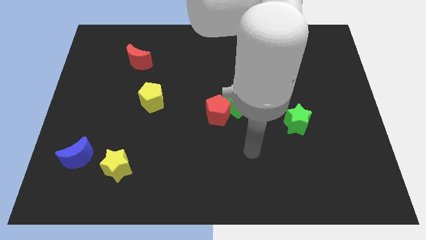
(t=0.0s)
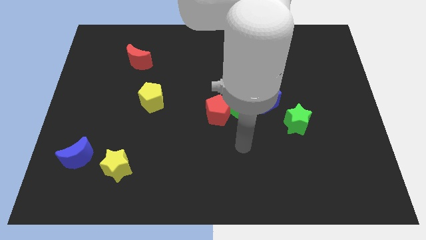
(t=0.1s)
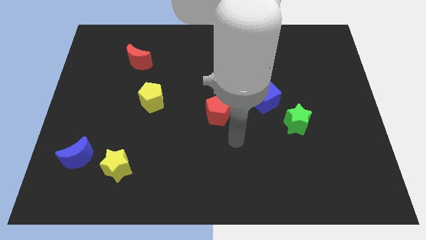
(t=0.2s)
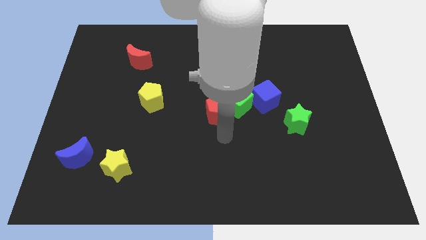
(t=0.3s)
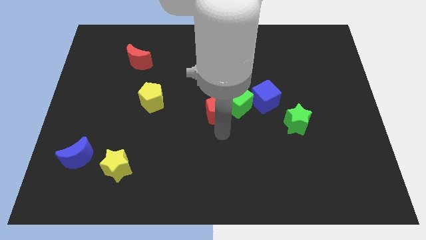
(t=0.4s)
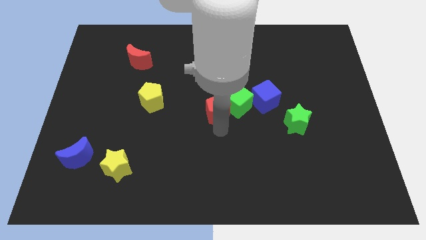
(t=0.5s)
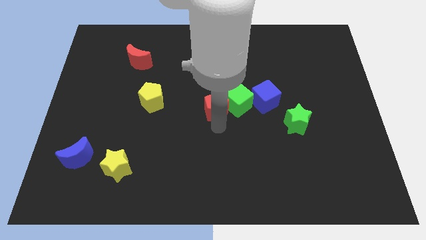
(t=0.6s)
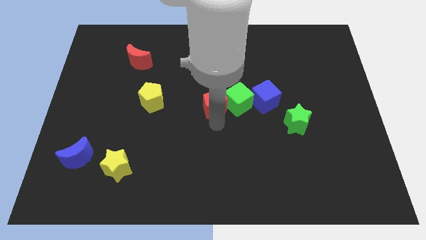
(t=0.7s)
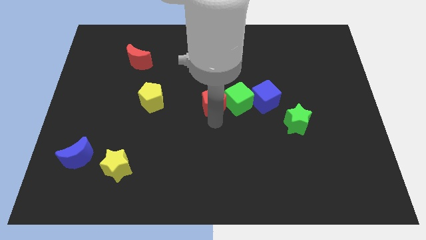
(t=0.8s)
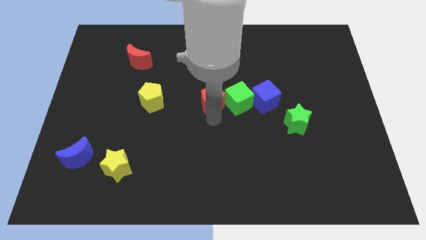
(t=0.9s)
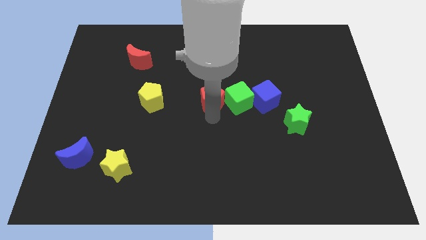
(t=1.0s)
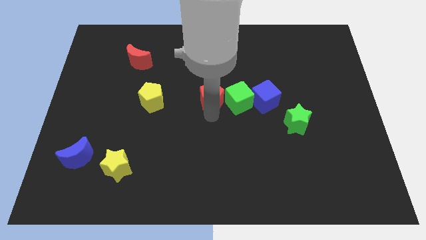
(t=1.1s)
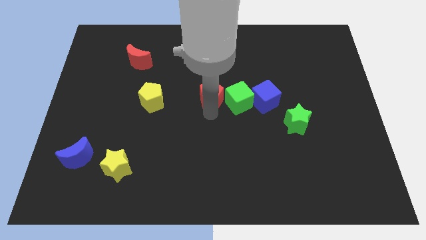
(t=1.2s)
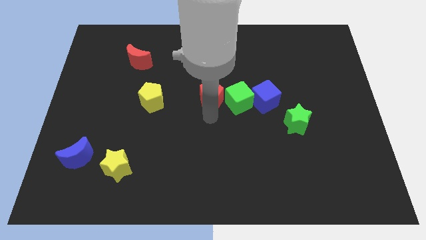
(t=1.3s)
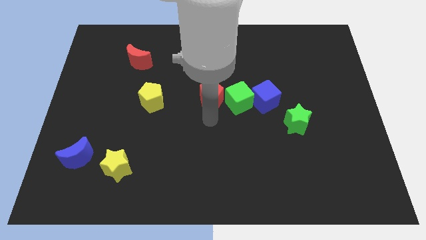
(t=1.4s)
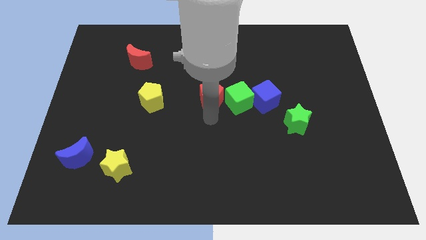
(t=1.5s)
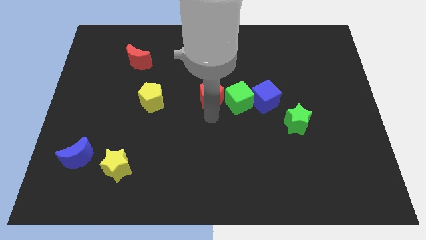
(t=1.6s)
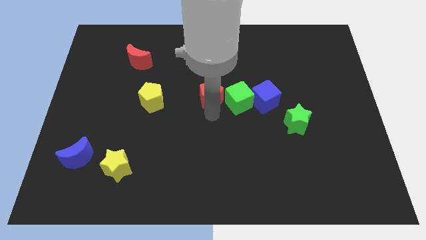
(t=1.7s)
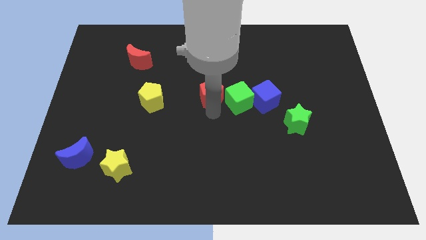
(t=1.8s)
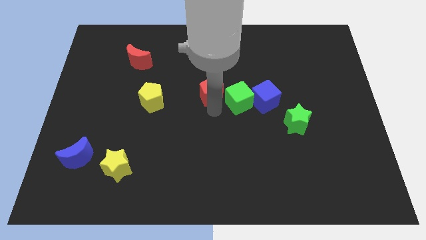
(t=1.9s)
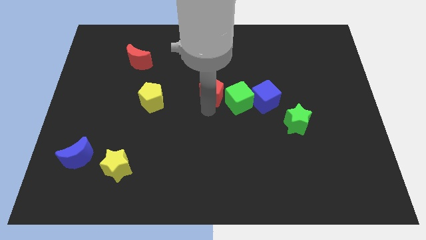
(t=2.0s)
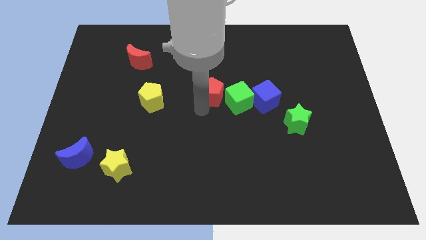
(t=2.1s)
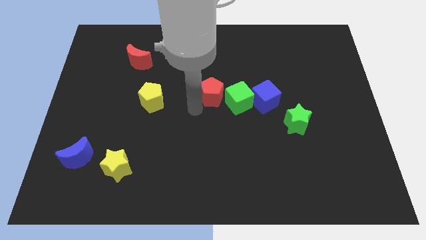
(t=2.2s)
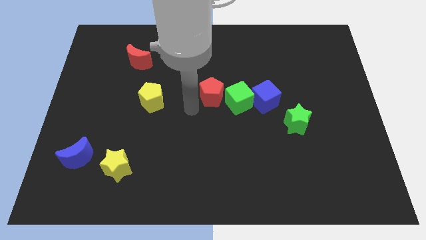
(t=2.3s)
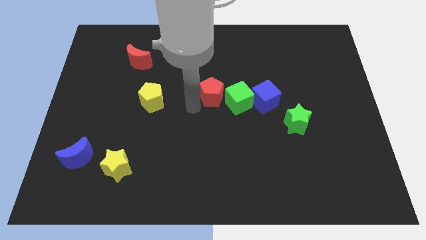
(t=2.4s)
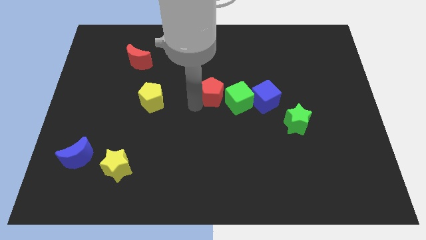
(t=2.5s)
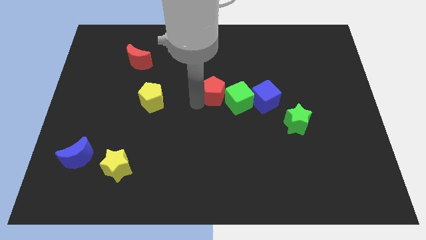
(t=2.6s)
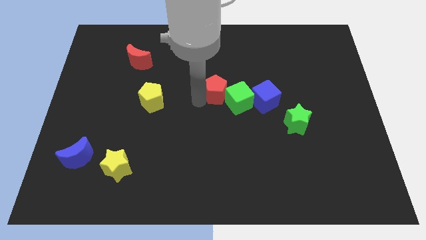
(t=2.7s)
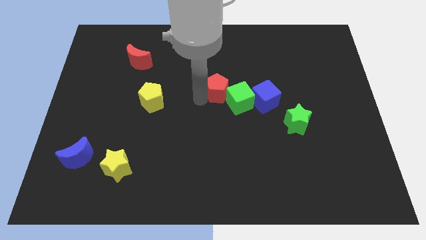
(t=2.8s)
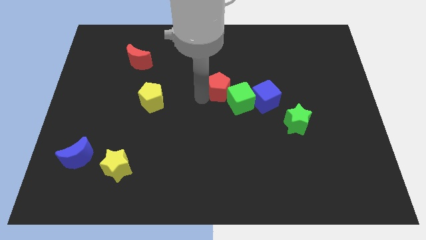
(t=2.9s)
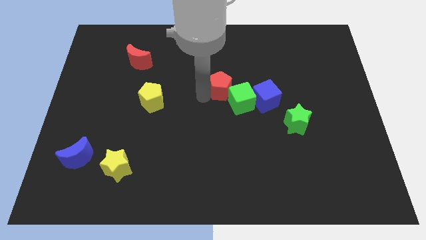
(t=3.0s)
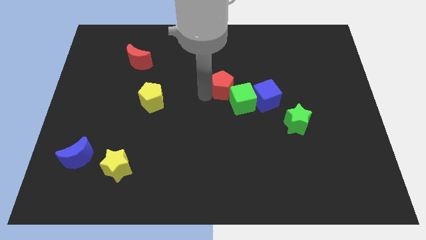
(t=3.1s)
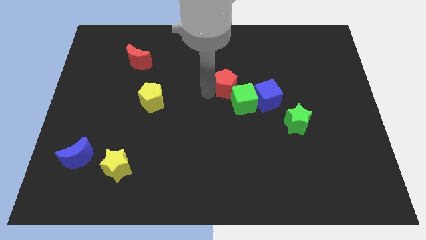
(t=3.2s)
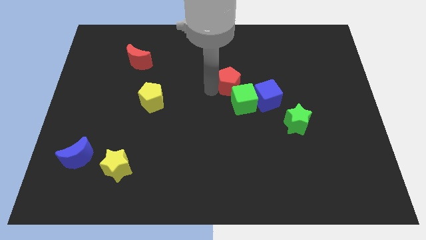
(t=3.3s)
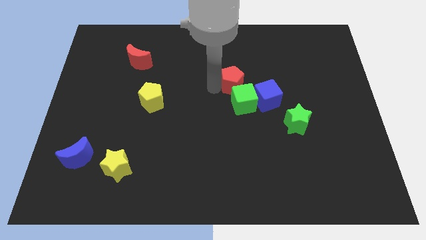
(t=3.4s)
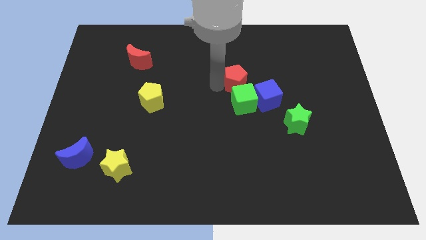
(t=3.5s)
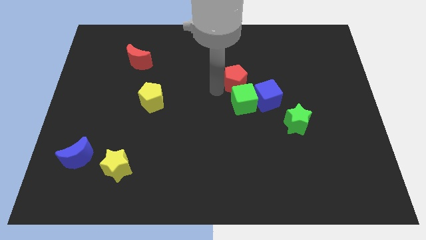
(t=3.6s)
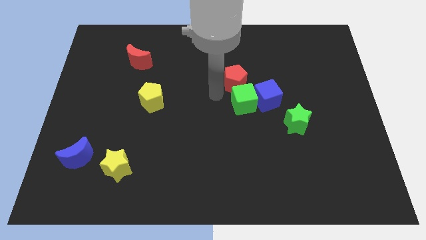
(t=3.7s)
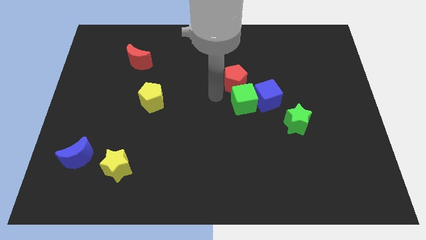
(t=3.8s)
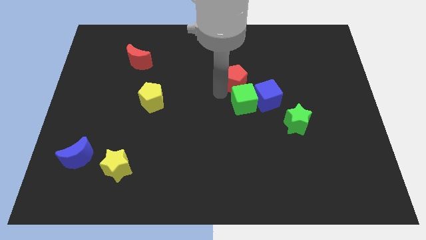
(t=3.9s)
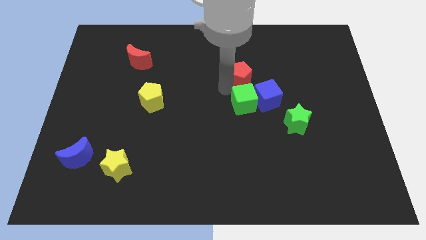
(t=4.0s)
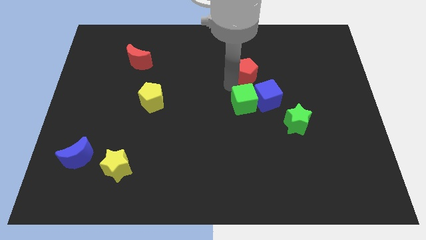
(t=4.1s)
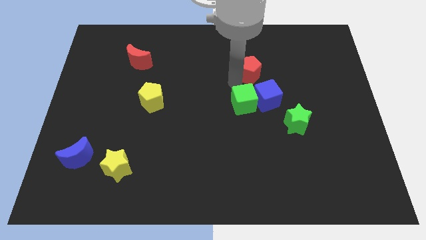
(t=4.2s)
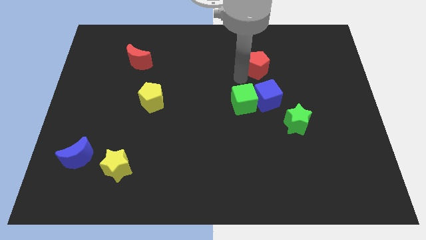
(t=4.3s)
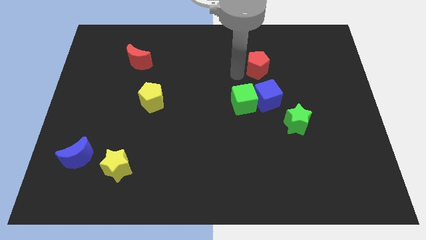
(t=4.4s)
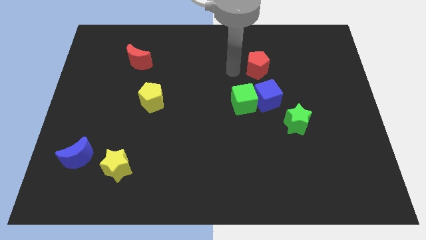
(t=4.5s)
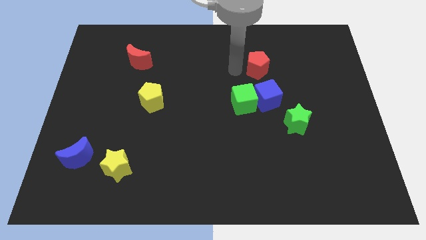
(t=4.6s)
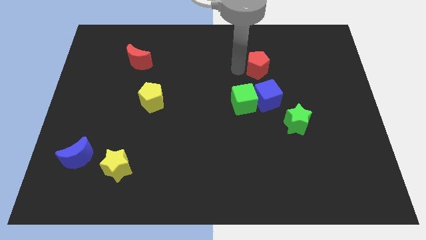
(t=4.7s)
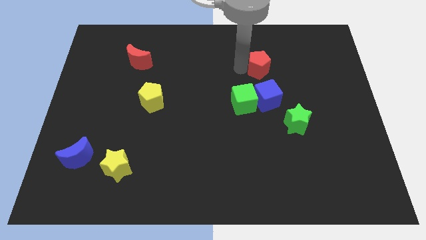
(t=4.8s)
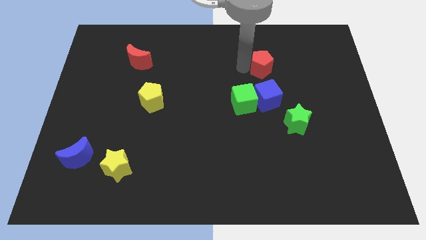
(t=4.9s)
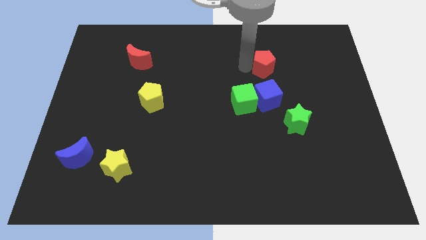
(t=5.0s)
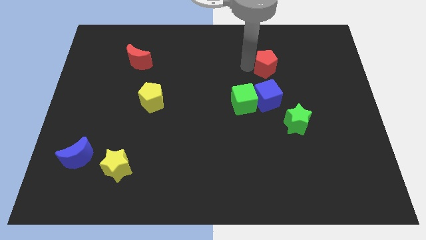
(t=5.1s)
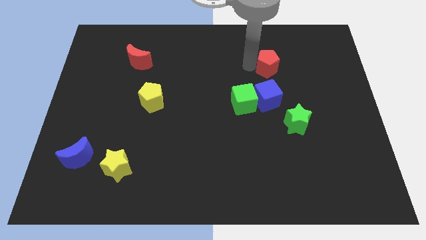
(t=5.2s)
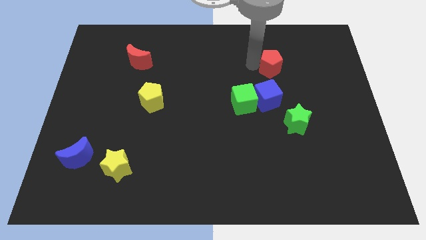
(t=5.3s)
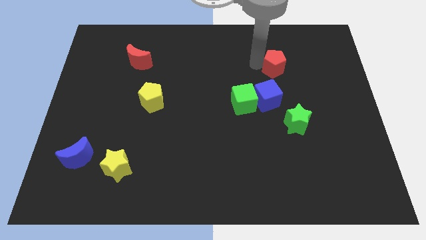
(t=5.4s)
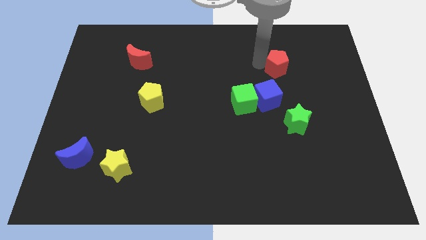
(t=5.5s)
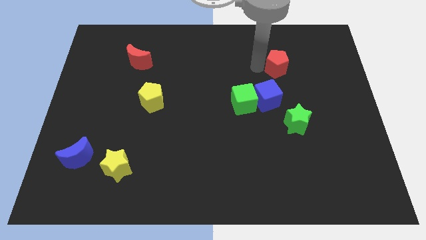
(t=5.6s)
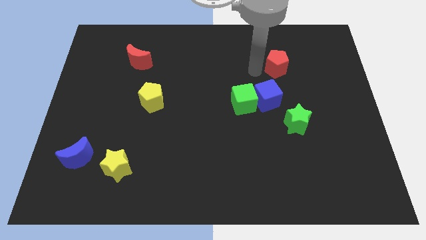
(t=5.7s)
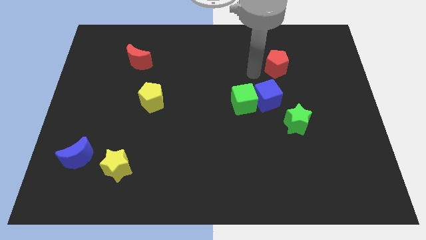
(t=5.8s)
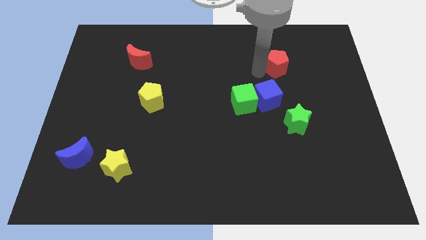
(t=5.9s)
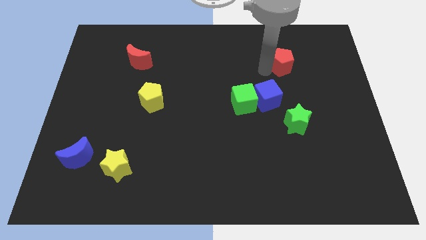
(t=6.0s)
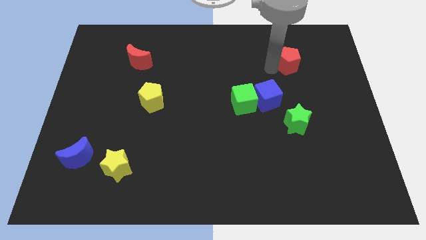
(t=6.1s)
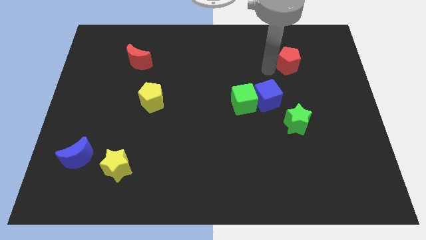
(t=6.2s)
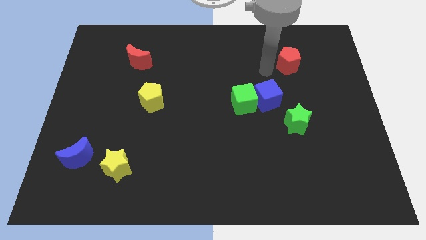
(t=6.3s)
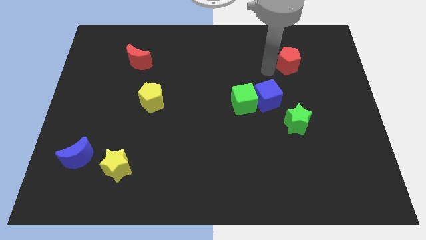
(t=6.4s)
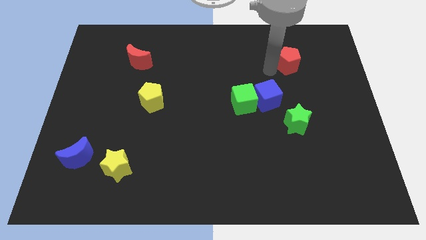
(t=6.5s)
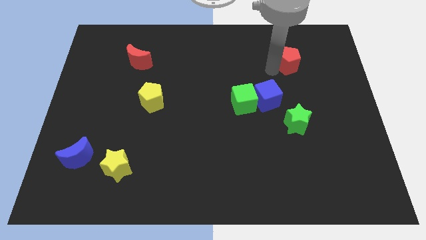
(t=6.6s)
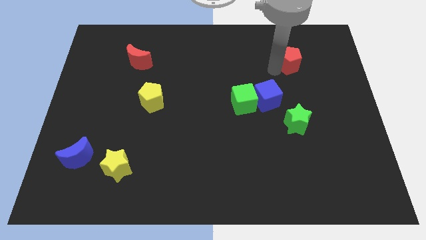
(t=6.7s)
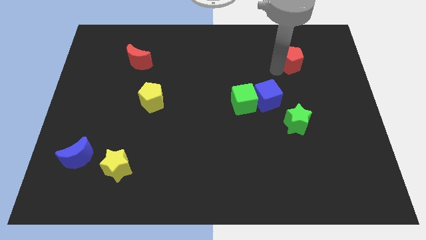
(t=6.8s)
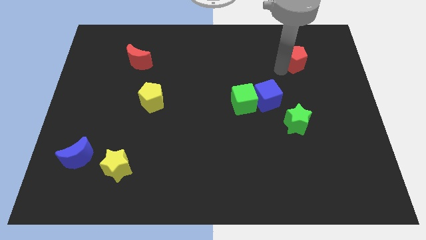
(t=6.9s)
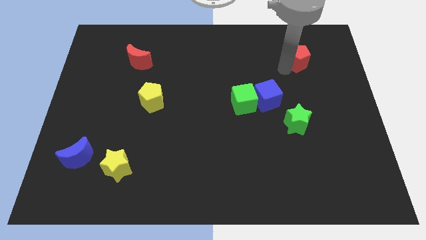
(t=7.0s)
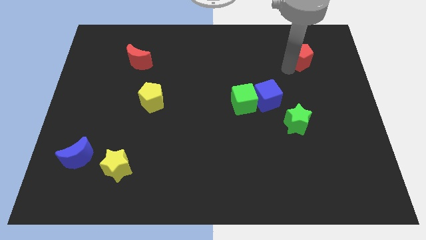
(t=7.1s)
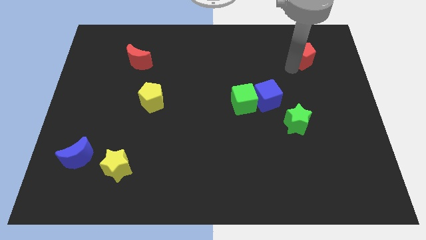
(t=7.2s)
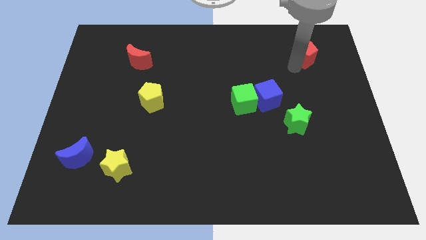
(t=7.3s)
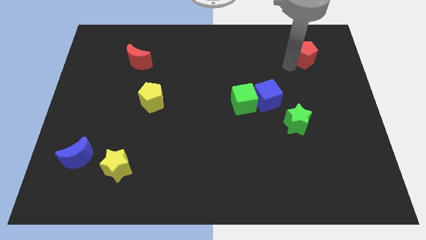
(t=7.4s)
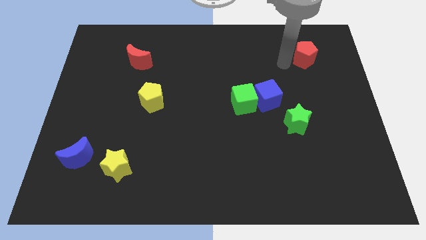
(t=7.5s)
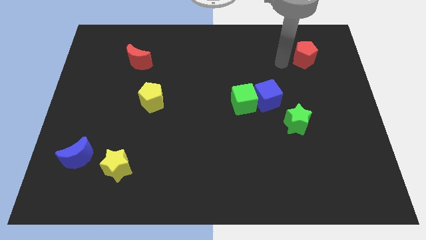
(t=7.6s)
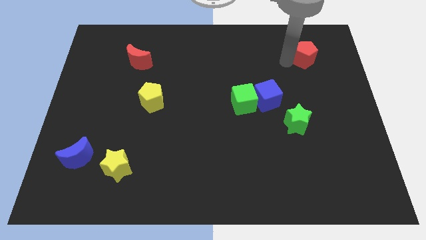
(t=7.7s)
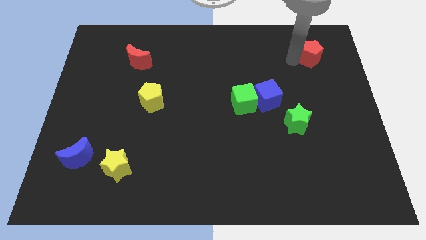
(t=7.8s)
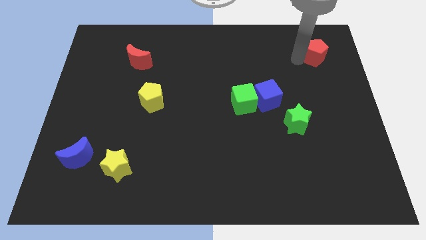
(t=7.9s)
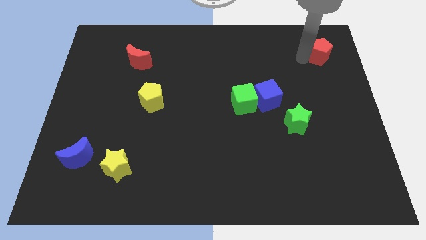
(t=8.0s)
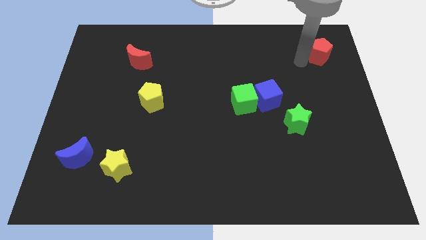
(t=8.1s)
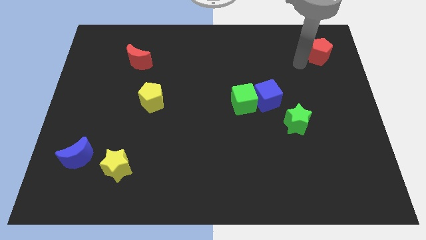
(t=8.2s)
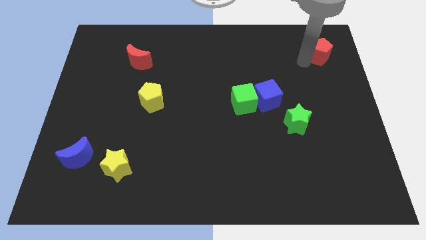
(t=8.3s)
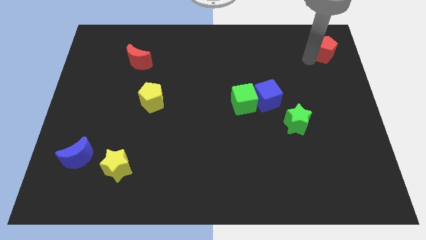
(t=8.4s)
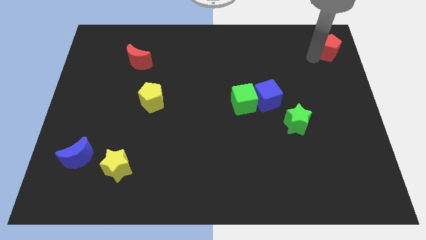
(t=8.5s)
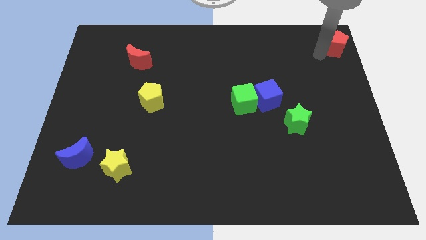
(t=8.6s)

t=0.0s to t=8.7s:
slide the red pentagon to the top right
